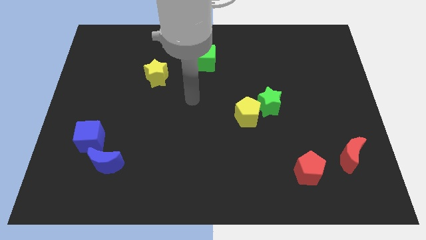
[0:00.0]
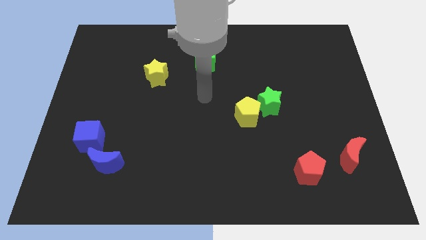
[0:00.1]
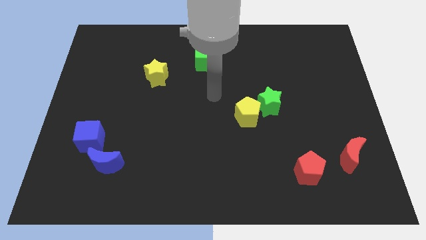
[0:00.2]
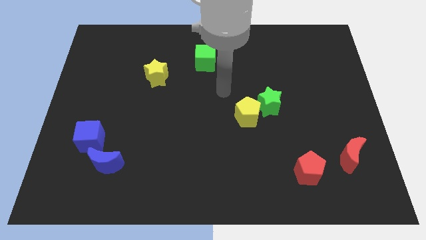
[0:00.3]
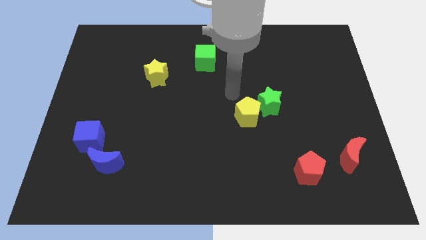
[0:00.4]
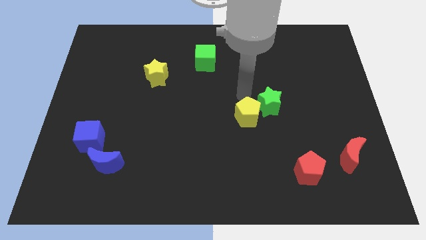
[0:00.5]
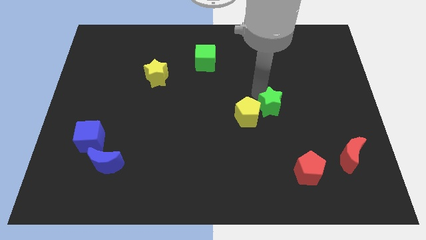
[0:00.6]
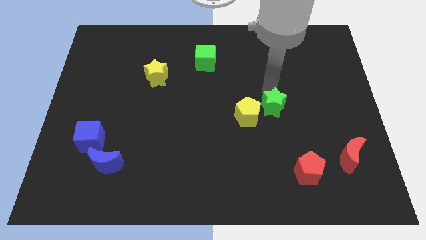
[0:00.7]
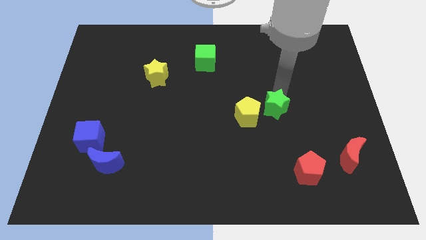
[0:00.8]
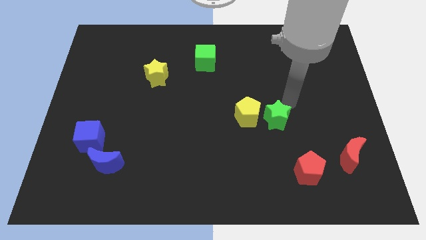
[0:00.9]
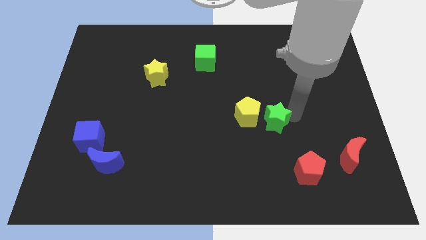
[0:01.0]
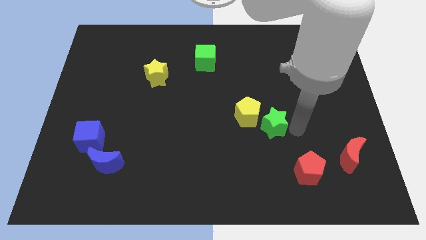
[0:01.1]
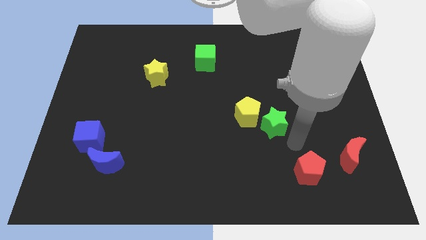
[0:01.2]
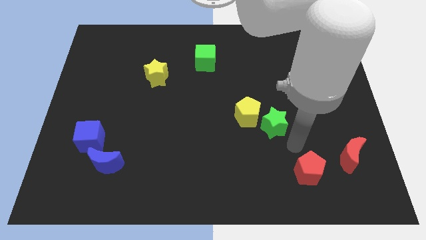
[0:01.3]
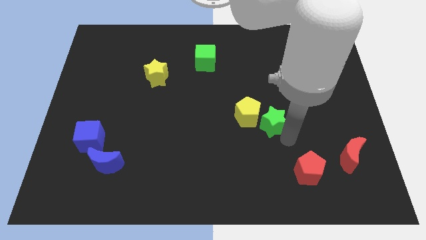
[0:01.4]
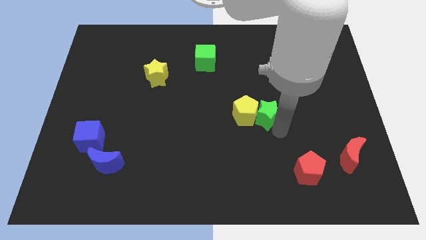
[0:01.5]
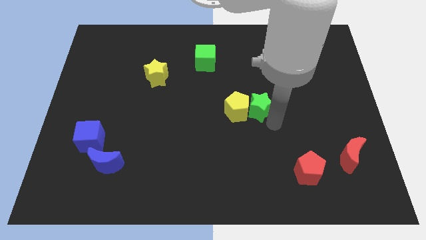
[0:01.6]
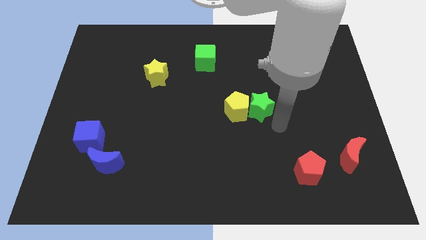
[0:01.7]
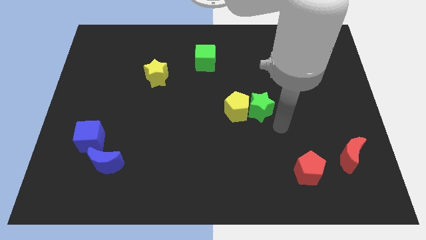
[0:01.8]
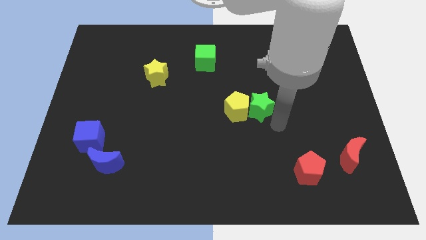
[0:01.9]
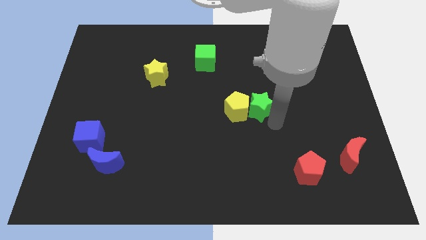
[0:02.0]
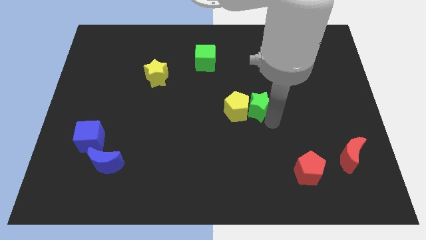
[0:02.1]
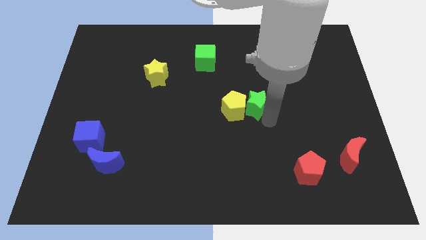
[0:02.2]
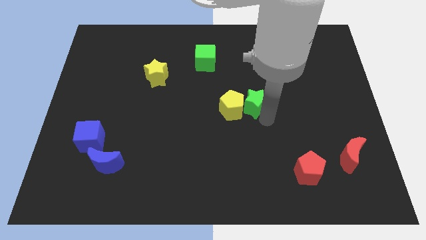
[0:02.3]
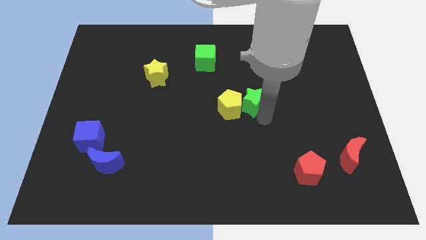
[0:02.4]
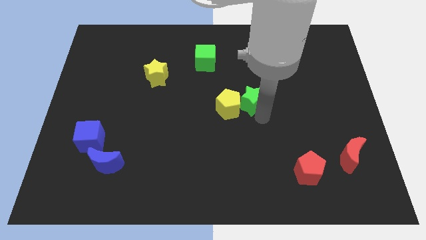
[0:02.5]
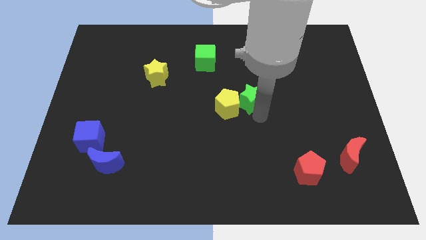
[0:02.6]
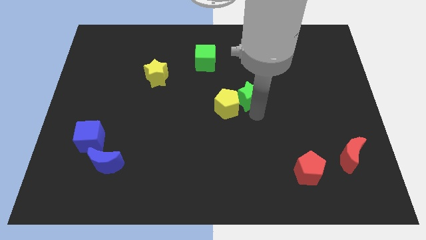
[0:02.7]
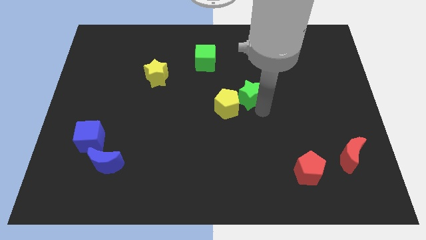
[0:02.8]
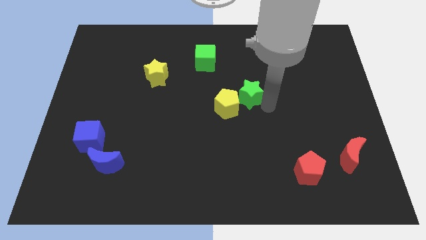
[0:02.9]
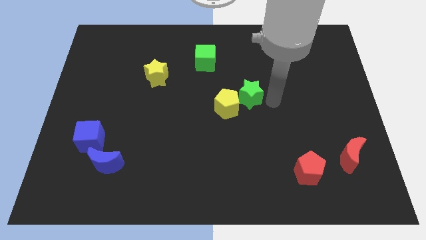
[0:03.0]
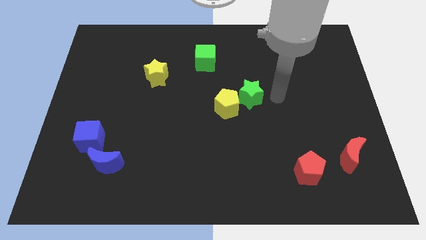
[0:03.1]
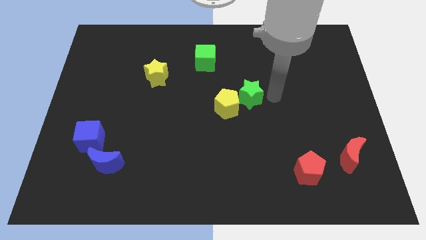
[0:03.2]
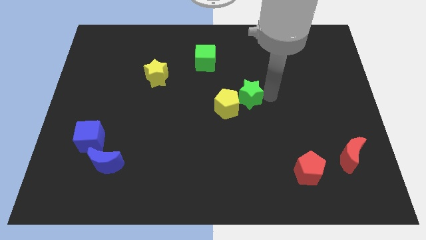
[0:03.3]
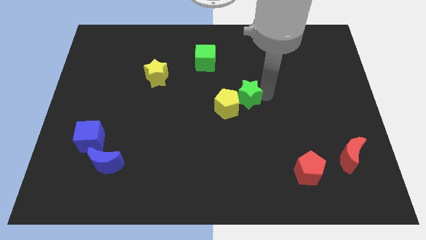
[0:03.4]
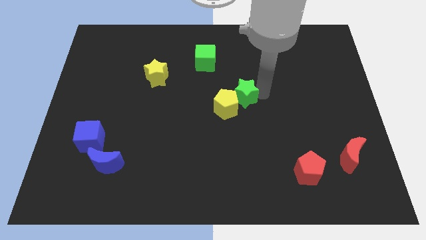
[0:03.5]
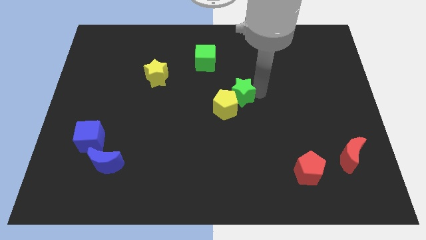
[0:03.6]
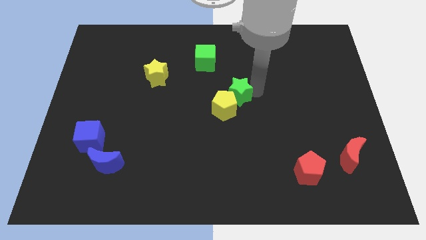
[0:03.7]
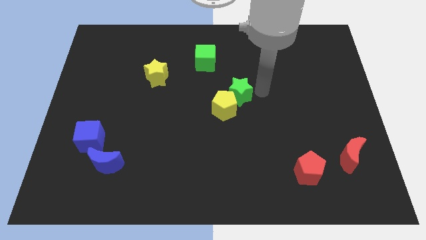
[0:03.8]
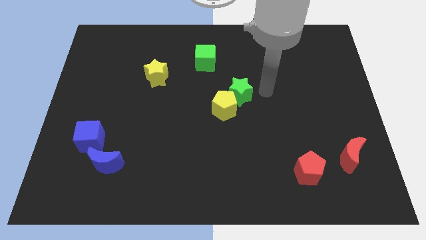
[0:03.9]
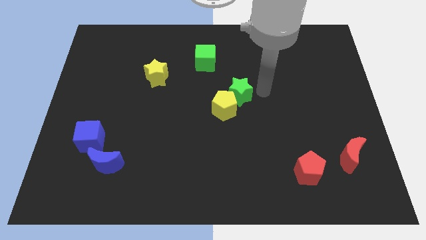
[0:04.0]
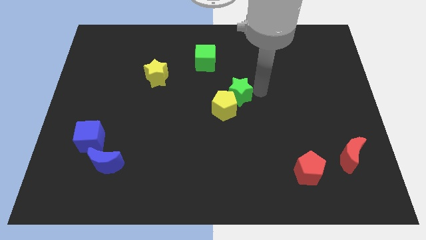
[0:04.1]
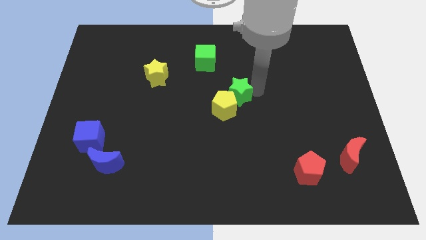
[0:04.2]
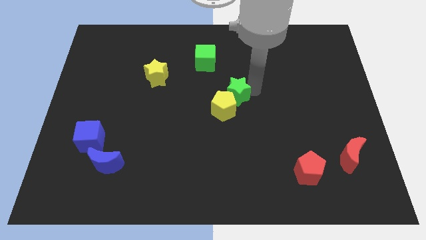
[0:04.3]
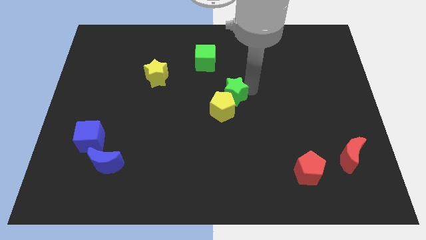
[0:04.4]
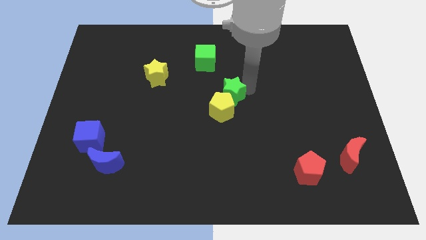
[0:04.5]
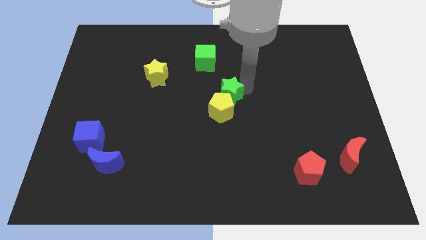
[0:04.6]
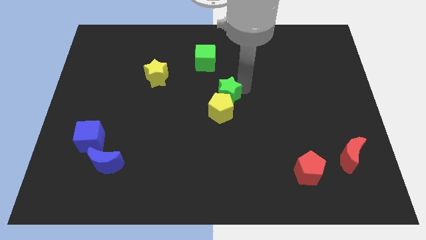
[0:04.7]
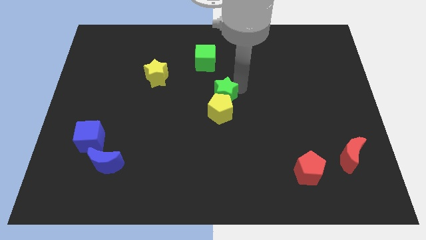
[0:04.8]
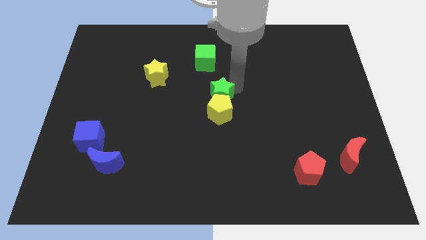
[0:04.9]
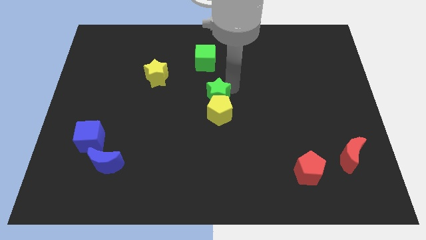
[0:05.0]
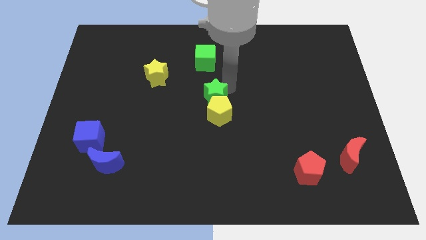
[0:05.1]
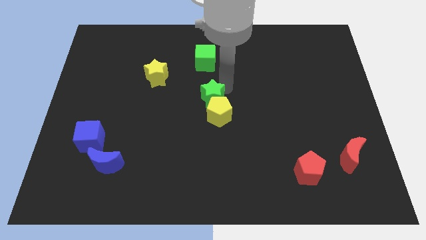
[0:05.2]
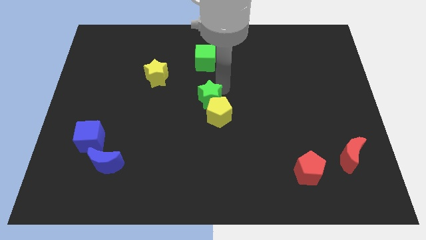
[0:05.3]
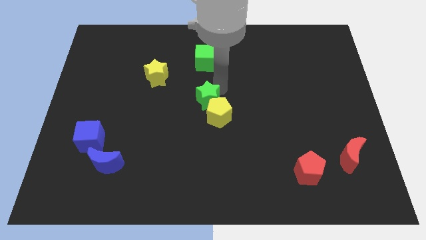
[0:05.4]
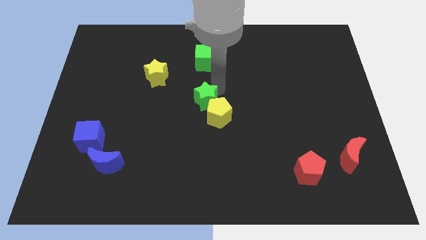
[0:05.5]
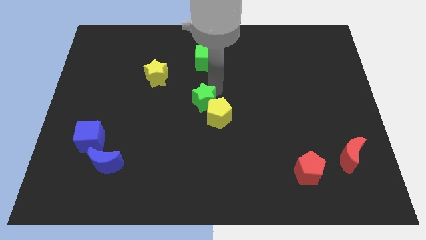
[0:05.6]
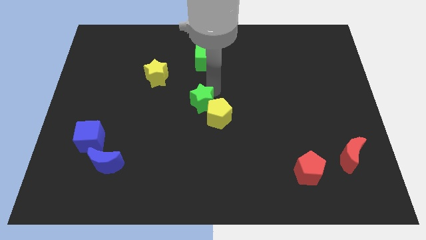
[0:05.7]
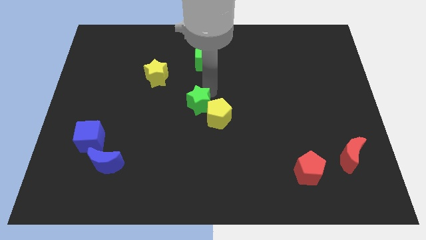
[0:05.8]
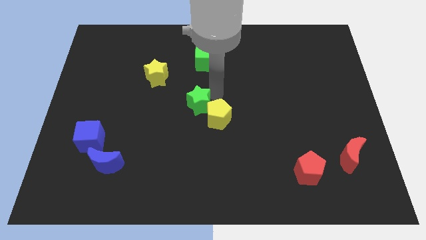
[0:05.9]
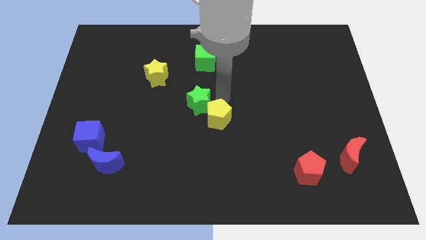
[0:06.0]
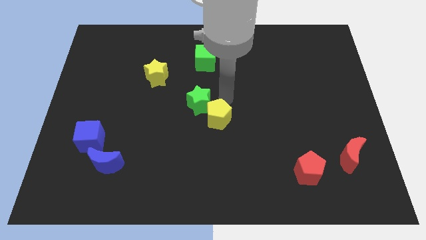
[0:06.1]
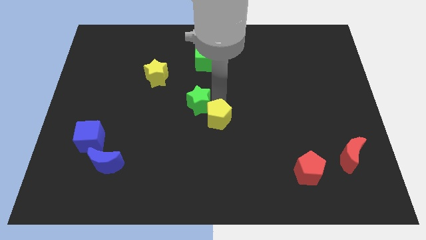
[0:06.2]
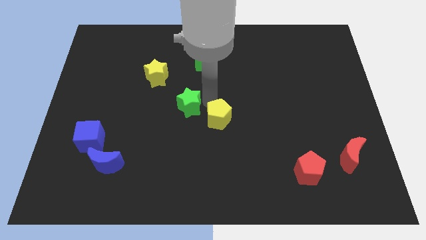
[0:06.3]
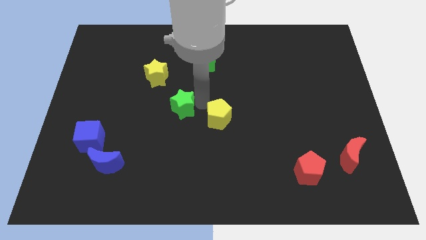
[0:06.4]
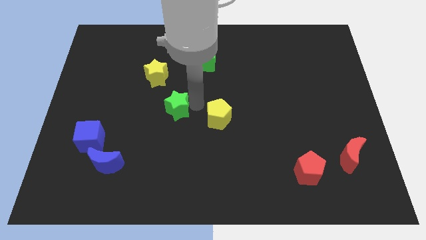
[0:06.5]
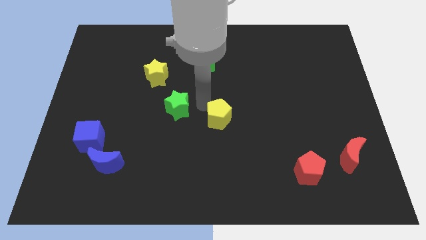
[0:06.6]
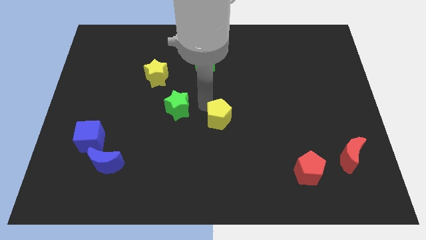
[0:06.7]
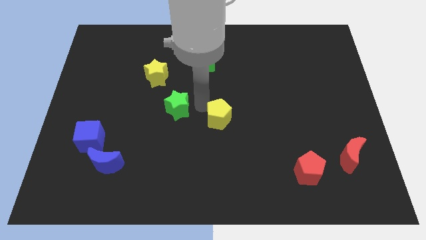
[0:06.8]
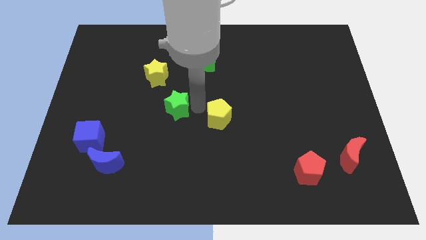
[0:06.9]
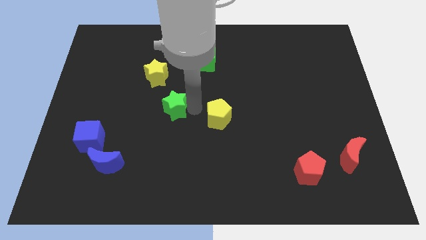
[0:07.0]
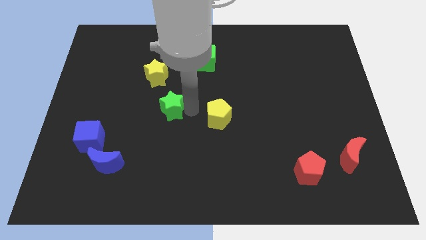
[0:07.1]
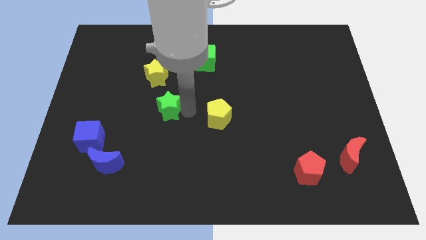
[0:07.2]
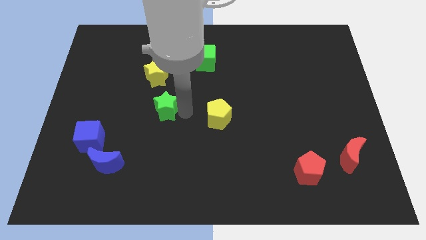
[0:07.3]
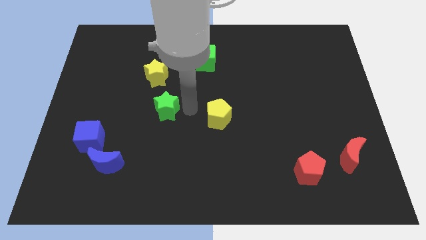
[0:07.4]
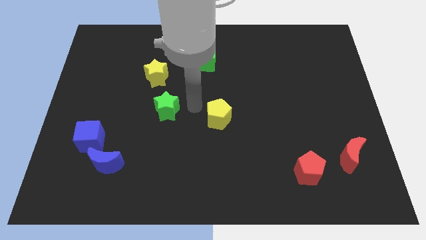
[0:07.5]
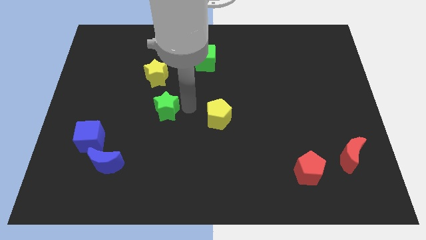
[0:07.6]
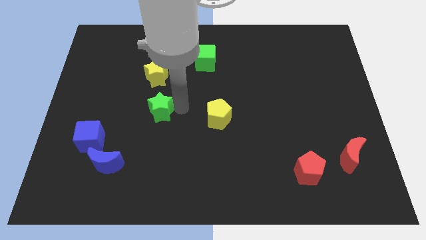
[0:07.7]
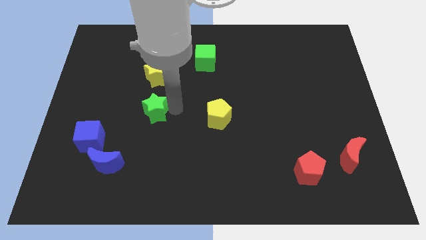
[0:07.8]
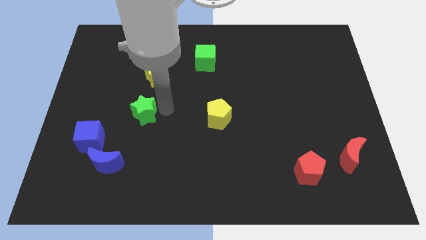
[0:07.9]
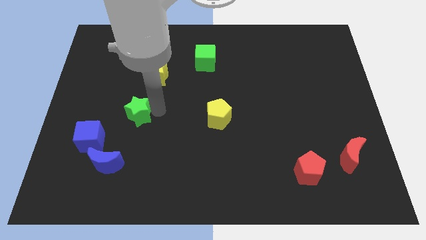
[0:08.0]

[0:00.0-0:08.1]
slide the green star to the top right of the blue cube
